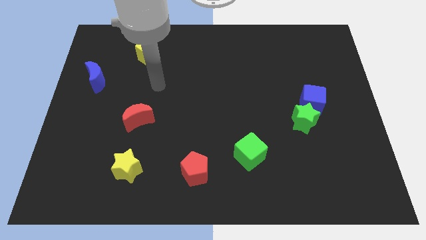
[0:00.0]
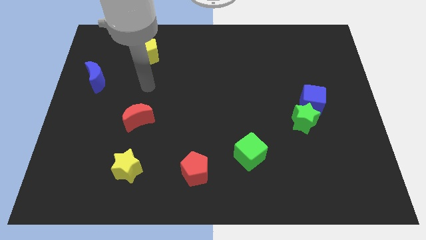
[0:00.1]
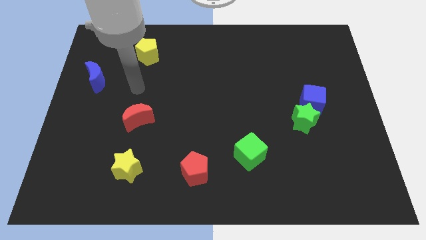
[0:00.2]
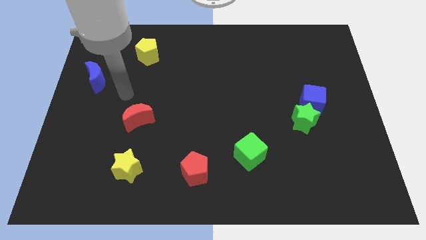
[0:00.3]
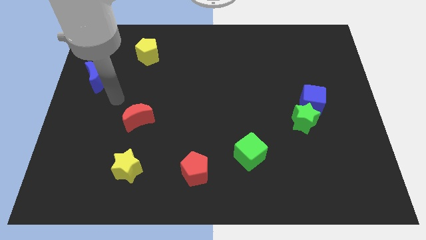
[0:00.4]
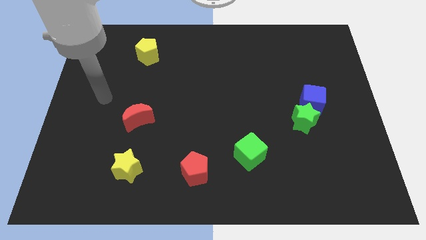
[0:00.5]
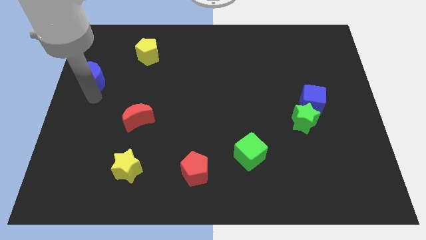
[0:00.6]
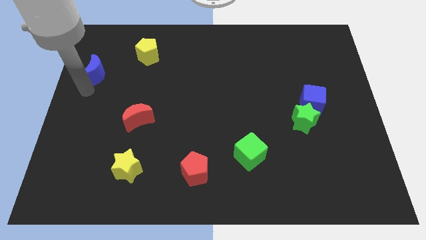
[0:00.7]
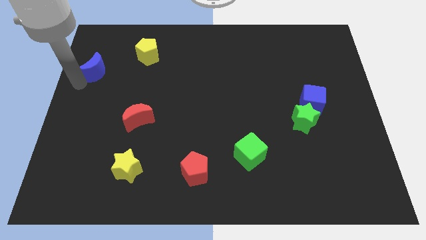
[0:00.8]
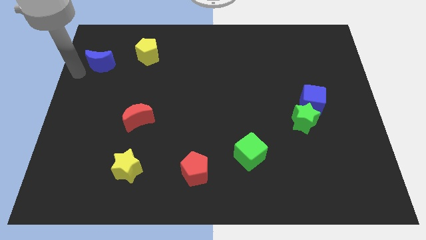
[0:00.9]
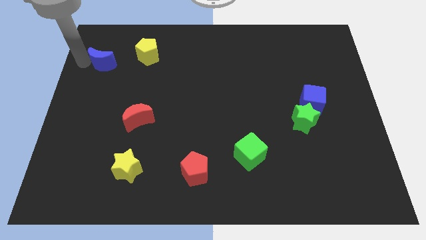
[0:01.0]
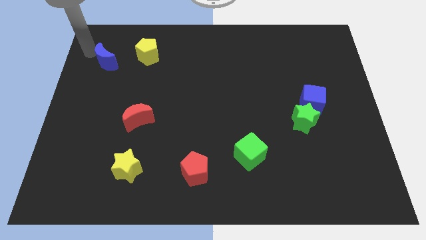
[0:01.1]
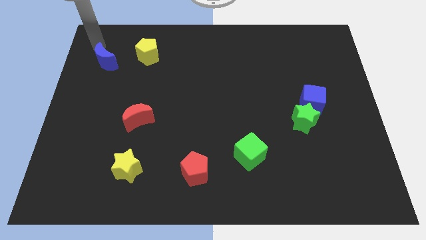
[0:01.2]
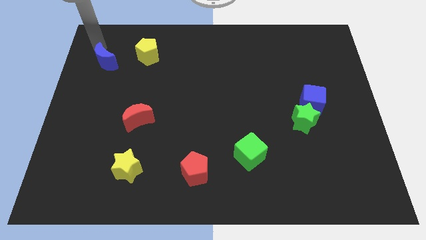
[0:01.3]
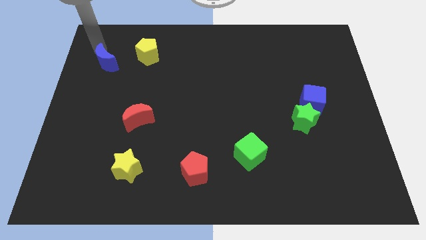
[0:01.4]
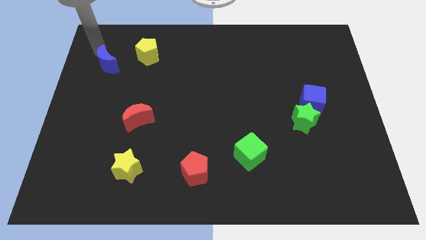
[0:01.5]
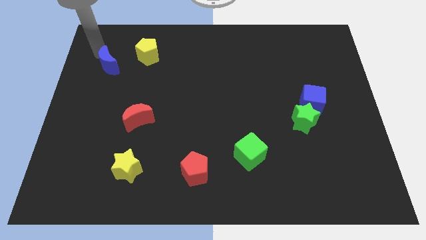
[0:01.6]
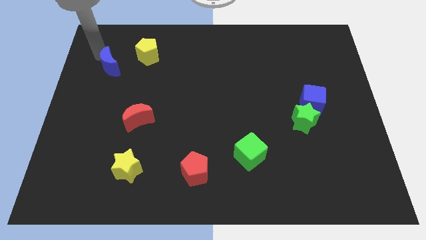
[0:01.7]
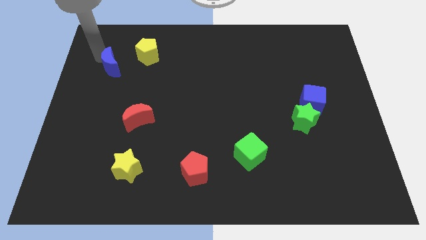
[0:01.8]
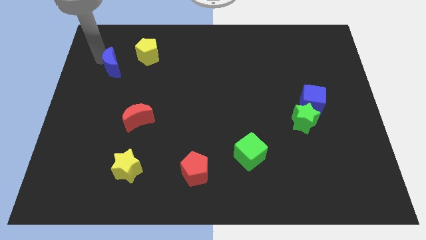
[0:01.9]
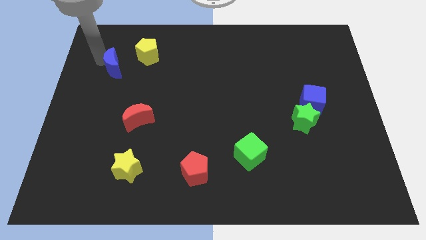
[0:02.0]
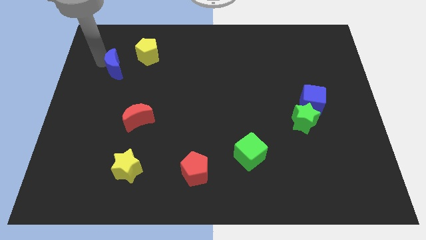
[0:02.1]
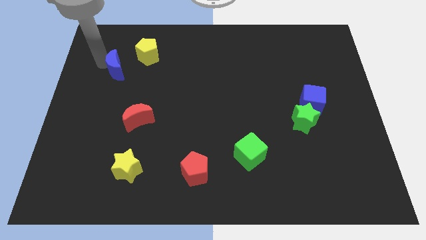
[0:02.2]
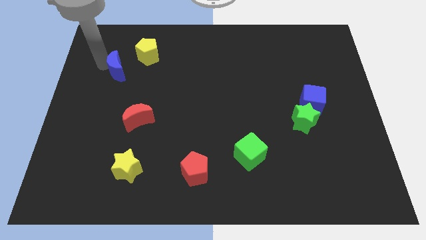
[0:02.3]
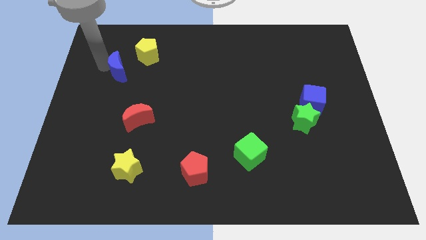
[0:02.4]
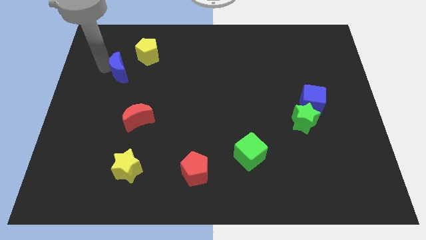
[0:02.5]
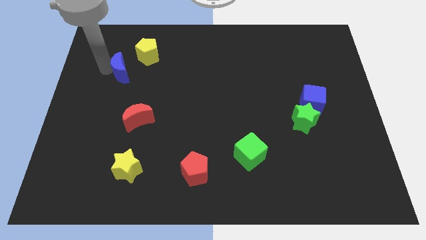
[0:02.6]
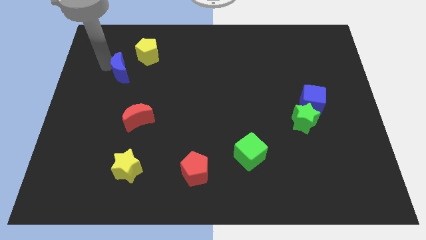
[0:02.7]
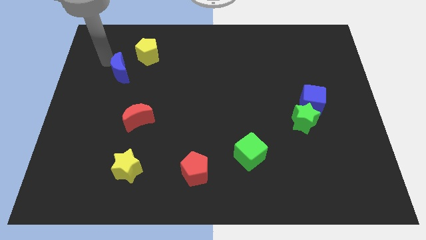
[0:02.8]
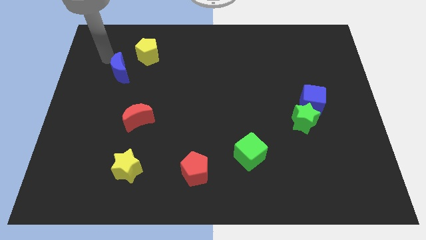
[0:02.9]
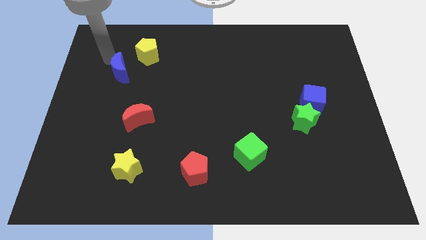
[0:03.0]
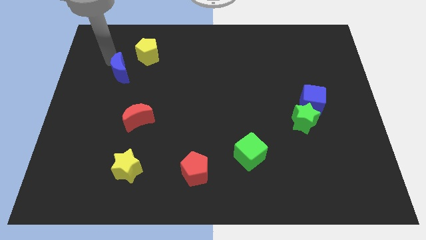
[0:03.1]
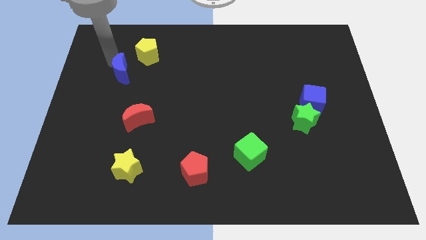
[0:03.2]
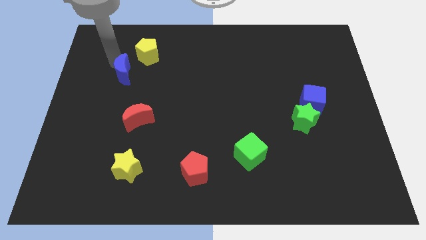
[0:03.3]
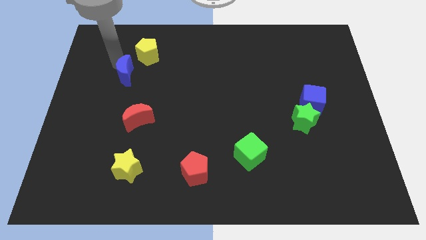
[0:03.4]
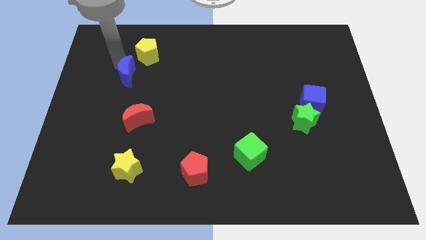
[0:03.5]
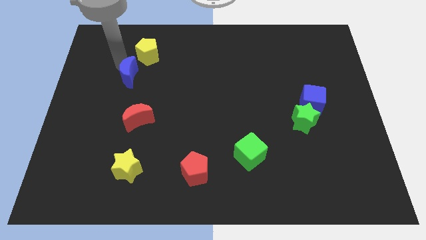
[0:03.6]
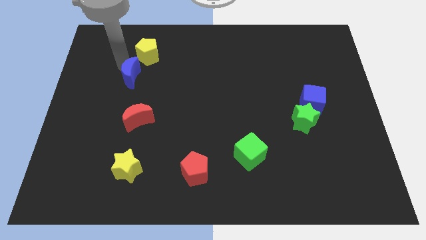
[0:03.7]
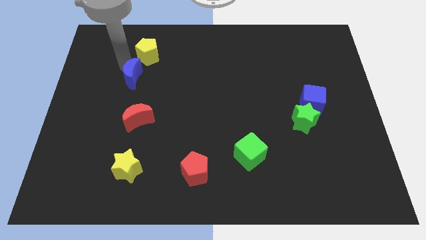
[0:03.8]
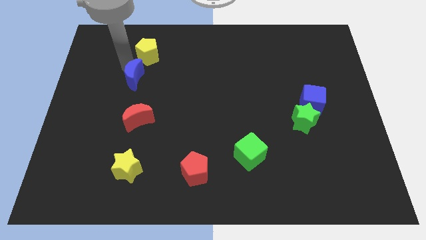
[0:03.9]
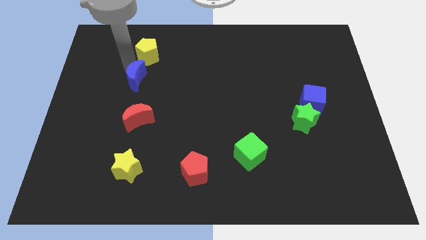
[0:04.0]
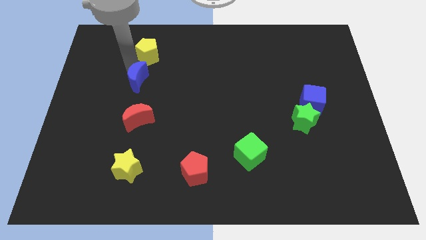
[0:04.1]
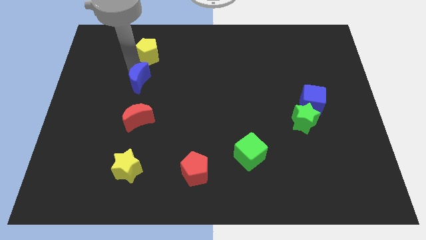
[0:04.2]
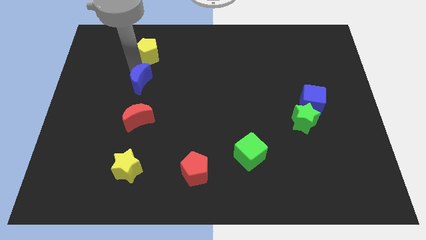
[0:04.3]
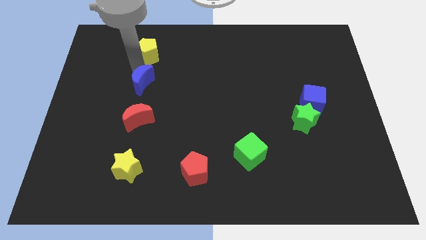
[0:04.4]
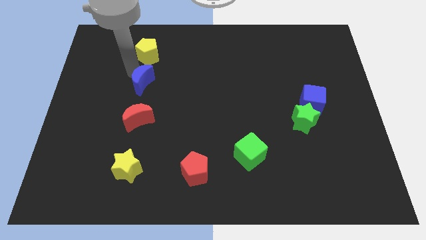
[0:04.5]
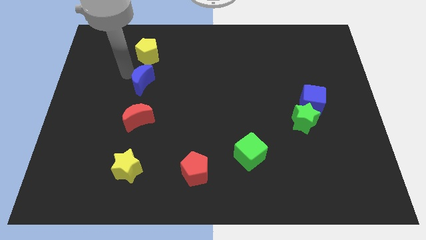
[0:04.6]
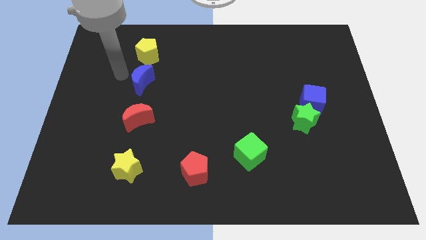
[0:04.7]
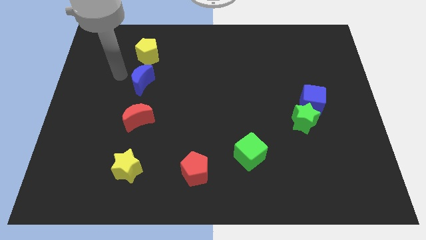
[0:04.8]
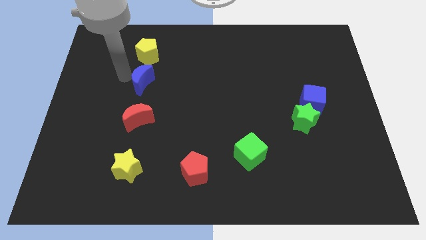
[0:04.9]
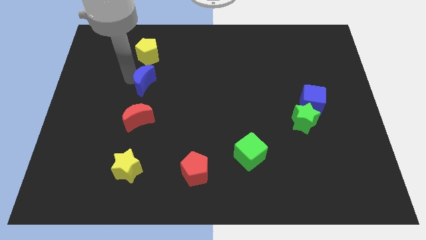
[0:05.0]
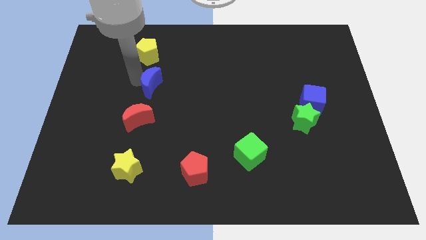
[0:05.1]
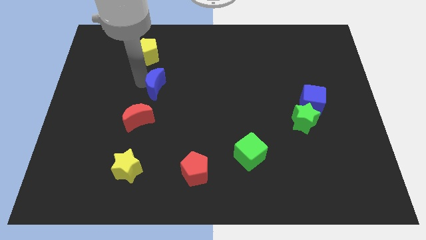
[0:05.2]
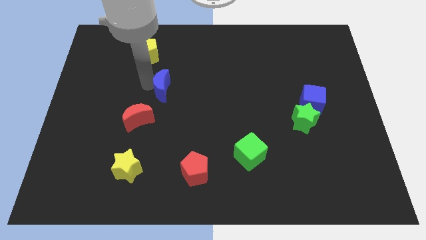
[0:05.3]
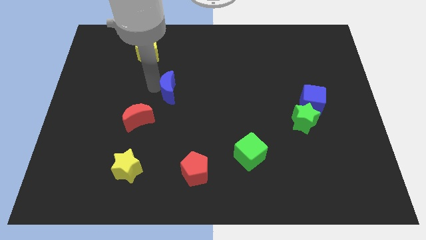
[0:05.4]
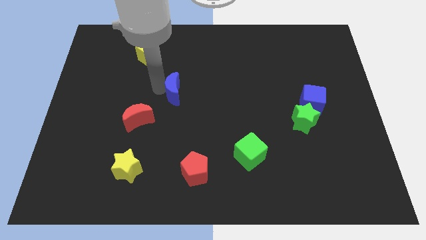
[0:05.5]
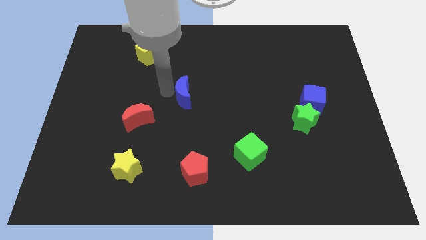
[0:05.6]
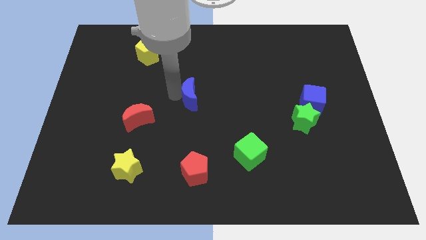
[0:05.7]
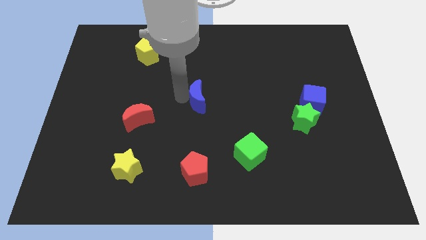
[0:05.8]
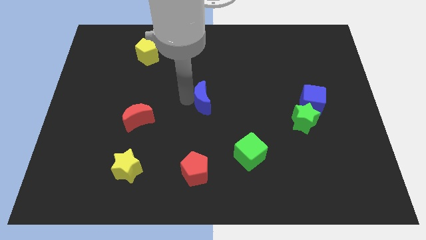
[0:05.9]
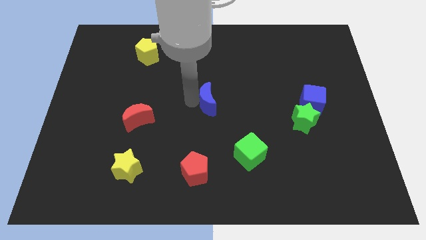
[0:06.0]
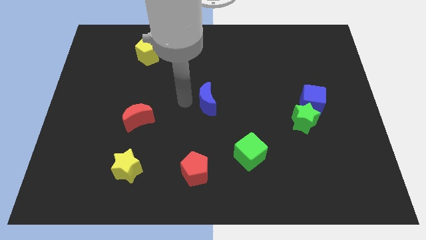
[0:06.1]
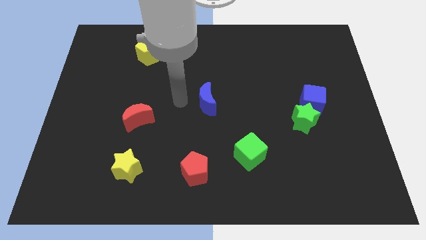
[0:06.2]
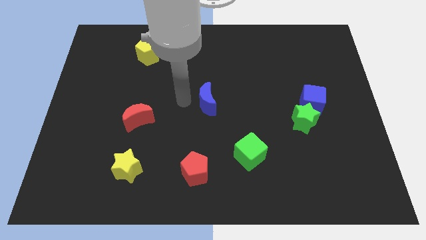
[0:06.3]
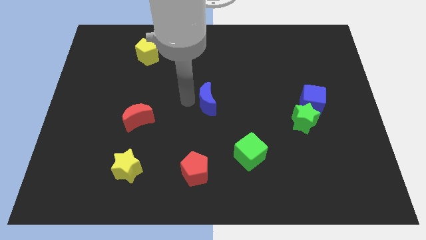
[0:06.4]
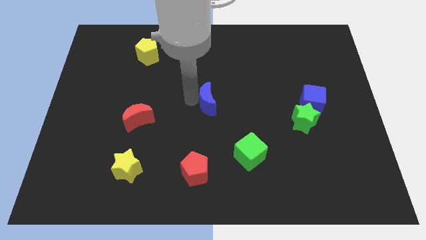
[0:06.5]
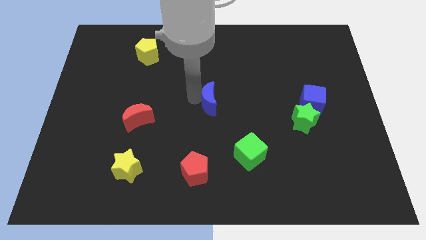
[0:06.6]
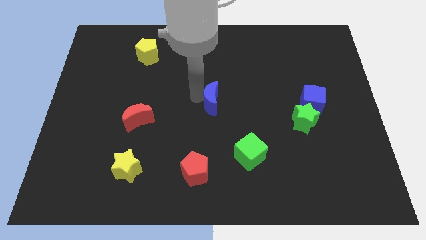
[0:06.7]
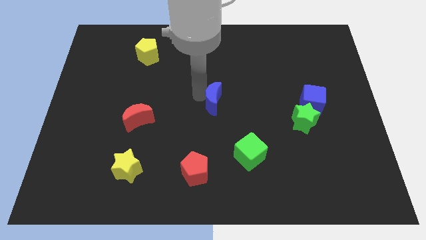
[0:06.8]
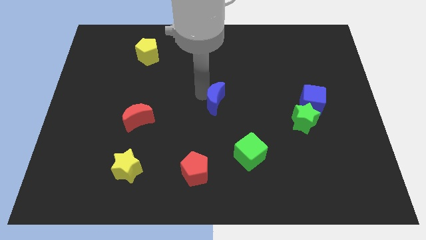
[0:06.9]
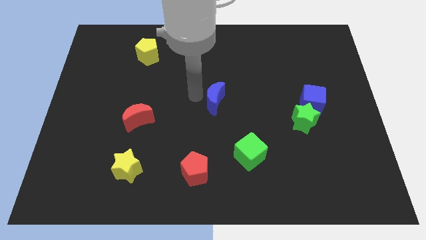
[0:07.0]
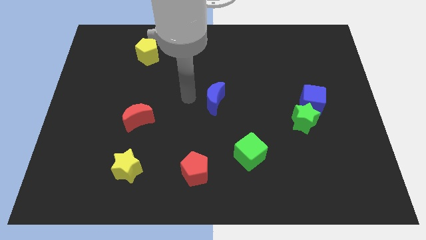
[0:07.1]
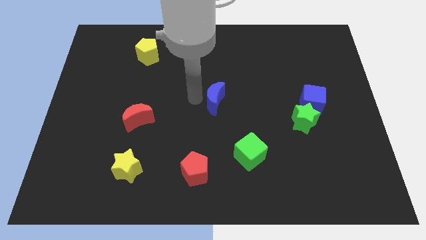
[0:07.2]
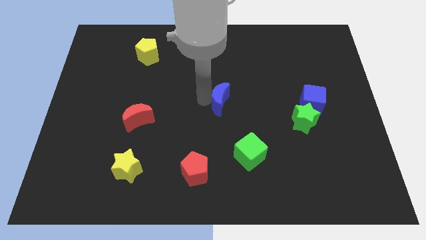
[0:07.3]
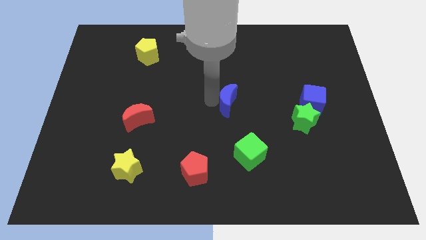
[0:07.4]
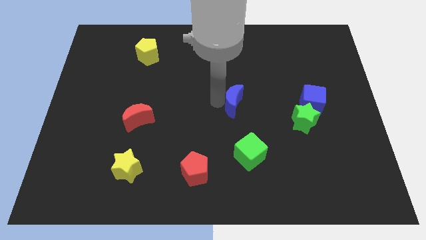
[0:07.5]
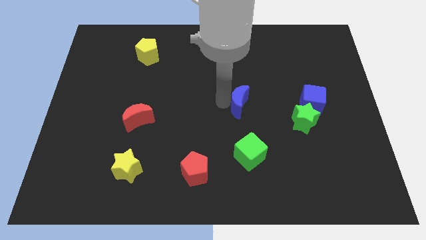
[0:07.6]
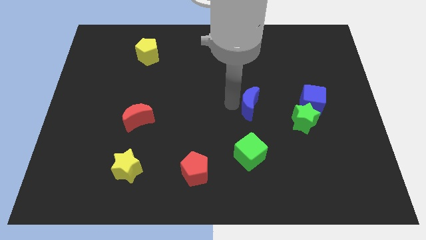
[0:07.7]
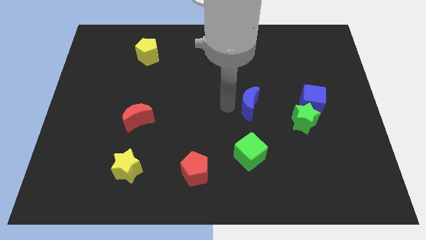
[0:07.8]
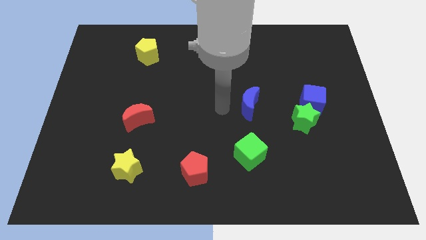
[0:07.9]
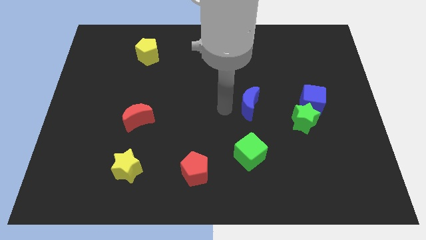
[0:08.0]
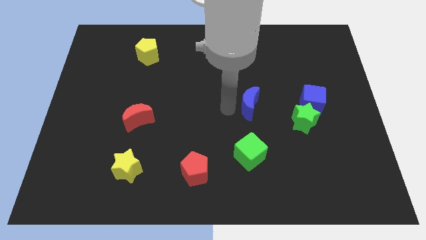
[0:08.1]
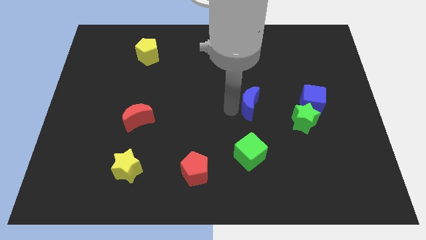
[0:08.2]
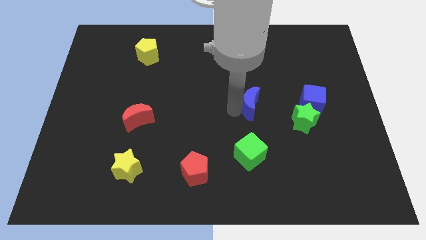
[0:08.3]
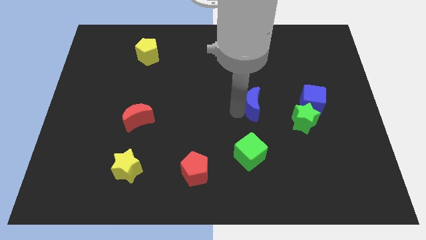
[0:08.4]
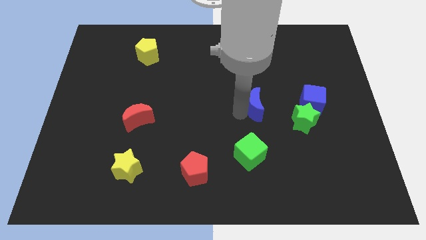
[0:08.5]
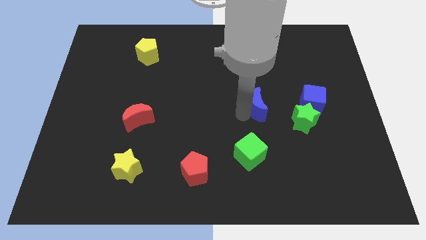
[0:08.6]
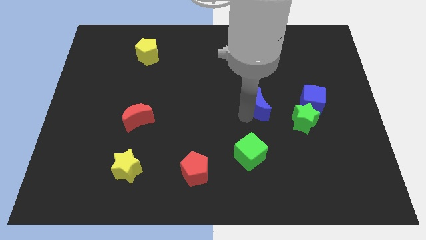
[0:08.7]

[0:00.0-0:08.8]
put the blue moon diagonally up and to the left of the green star
